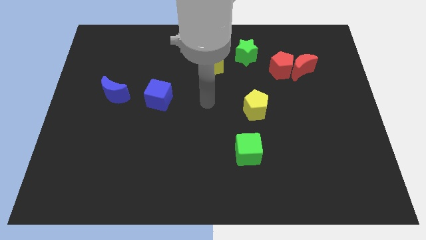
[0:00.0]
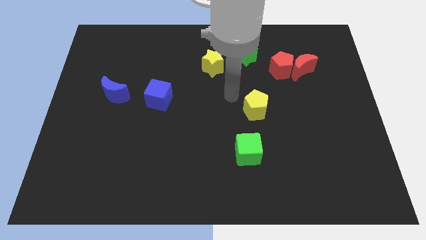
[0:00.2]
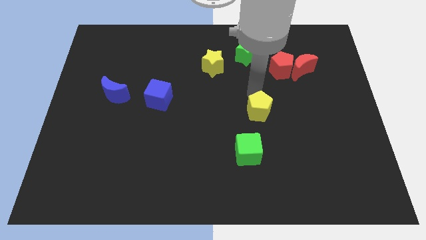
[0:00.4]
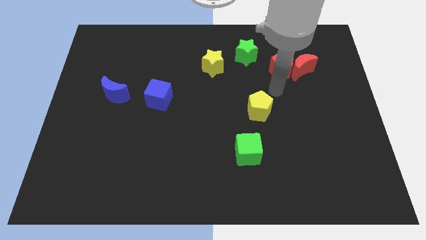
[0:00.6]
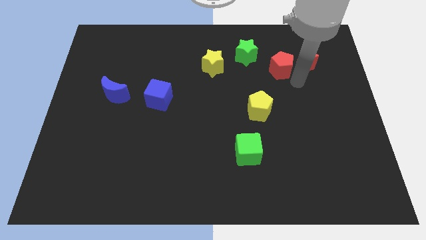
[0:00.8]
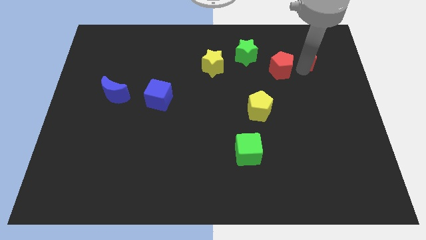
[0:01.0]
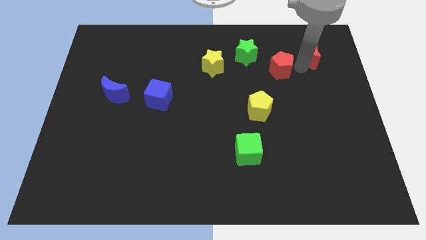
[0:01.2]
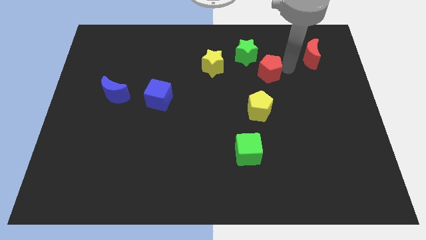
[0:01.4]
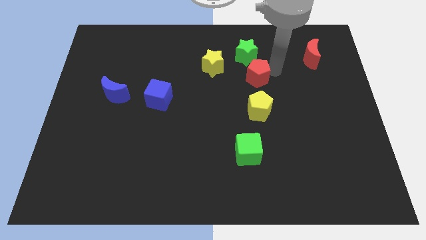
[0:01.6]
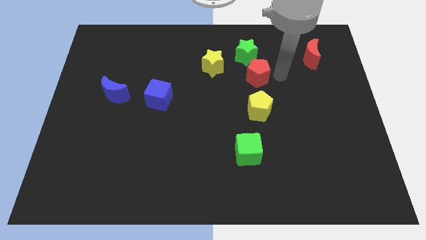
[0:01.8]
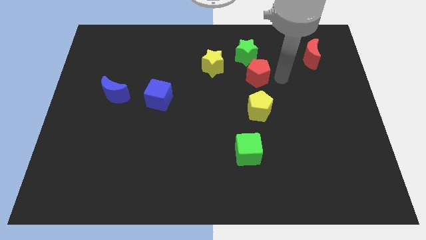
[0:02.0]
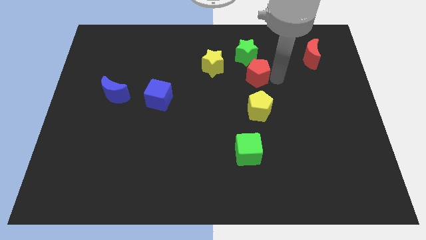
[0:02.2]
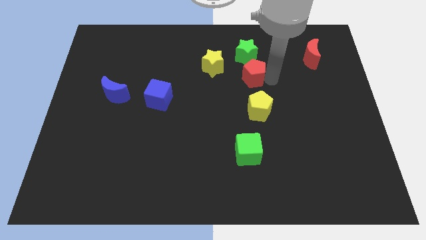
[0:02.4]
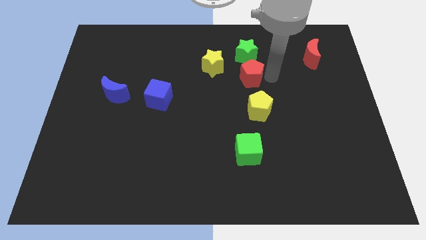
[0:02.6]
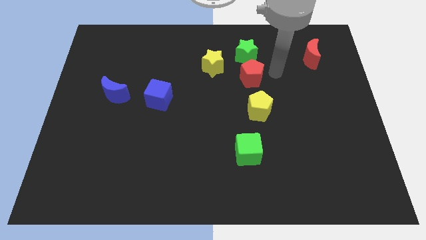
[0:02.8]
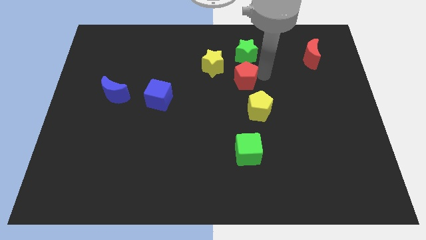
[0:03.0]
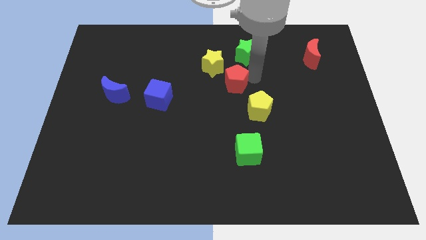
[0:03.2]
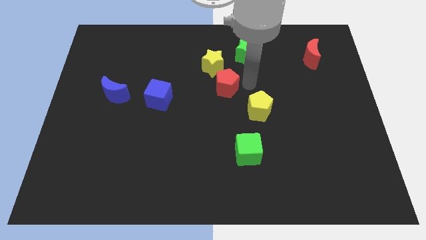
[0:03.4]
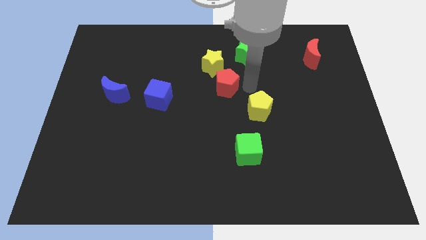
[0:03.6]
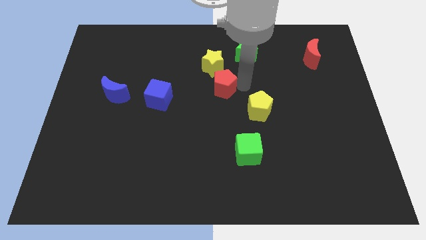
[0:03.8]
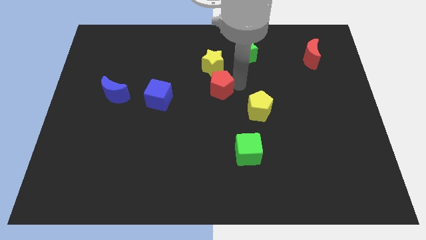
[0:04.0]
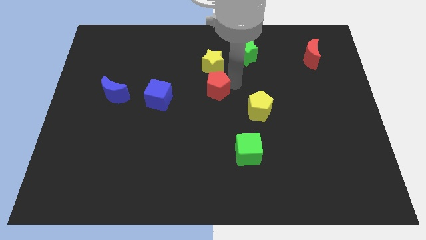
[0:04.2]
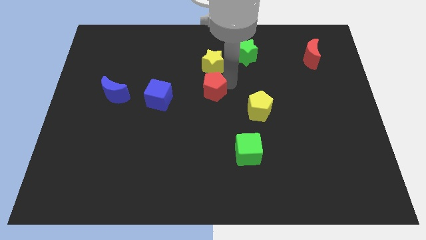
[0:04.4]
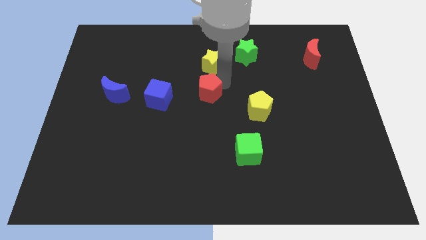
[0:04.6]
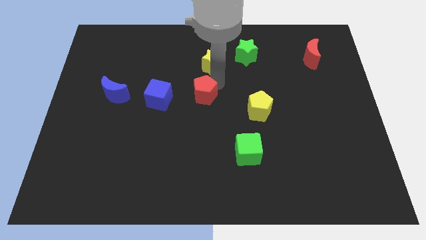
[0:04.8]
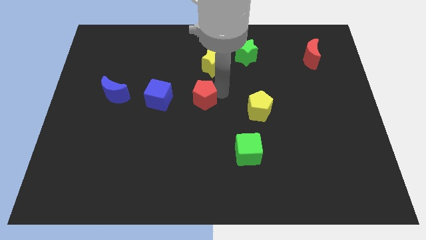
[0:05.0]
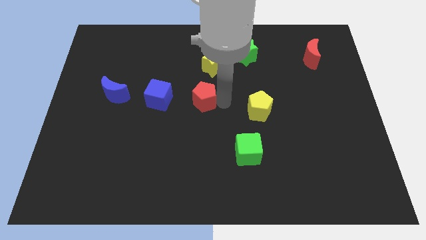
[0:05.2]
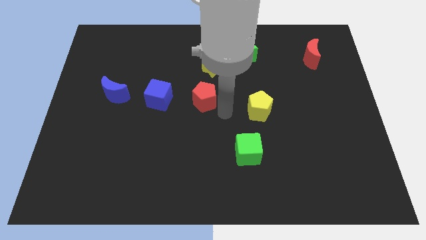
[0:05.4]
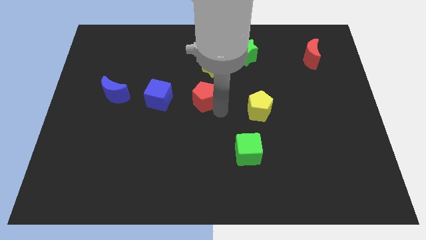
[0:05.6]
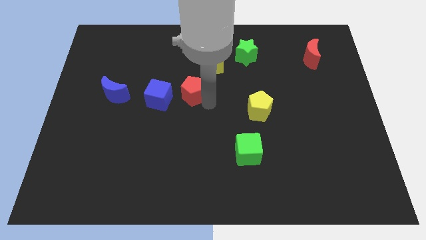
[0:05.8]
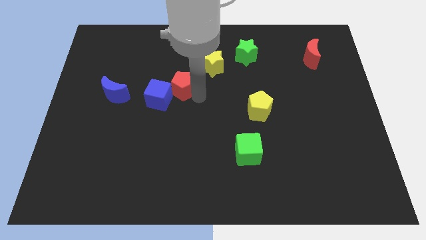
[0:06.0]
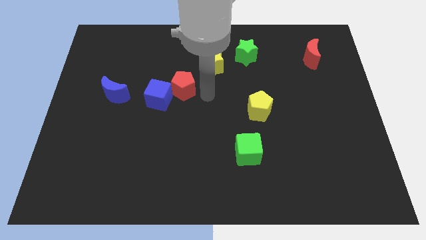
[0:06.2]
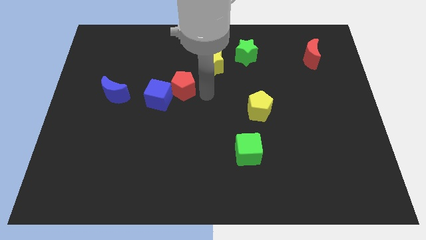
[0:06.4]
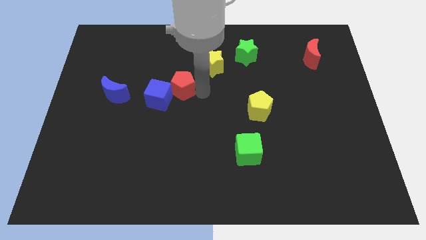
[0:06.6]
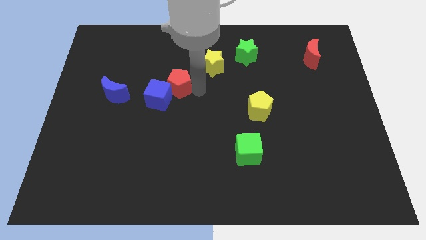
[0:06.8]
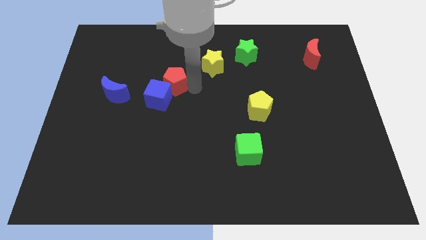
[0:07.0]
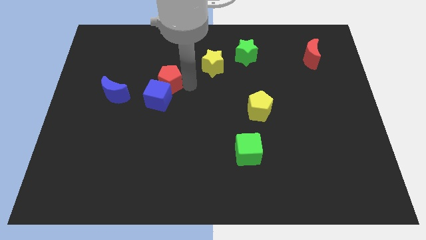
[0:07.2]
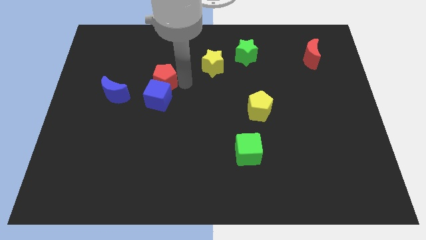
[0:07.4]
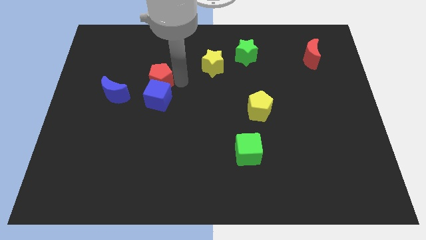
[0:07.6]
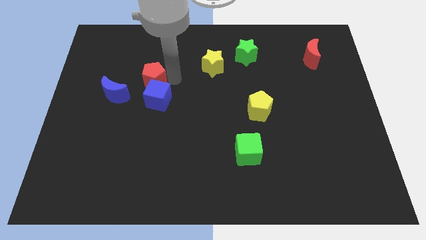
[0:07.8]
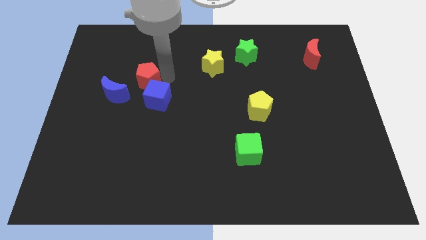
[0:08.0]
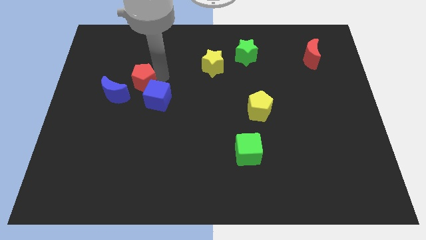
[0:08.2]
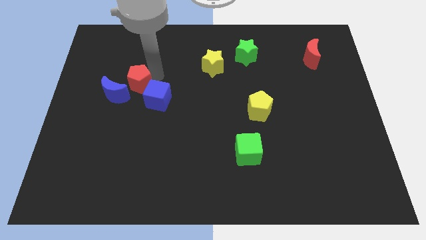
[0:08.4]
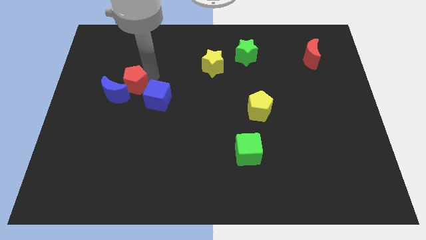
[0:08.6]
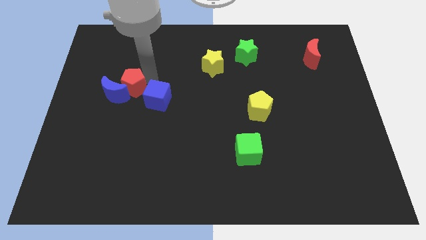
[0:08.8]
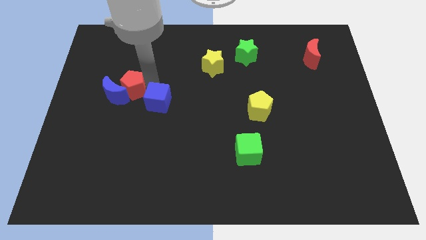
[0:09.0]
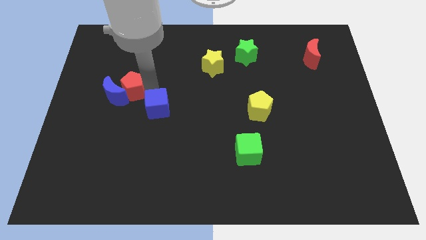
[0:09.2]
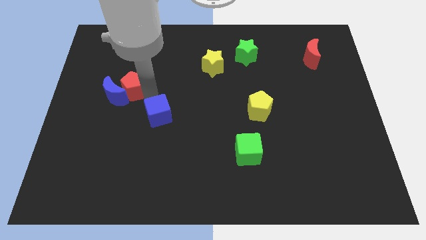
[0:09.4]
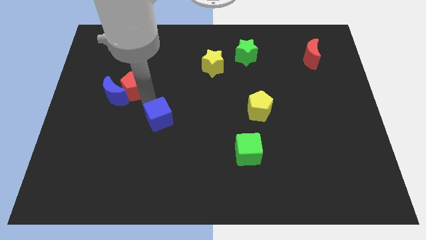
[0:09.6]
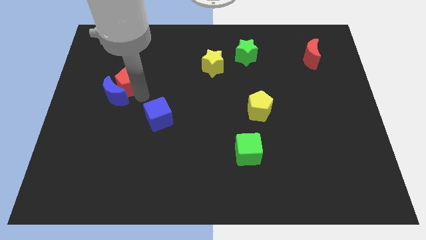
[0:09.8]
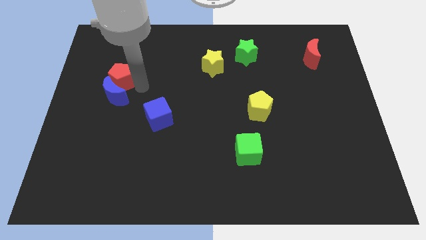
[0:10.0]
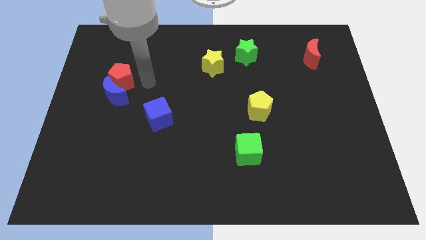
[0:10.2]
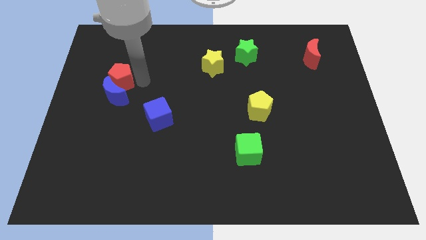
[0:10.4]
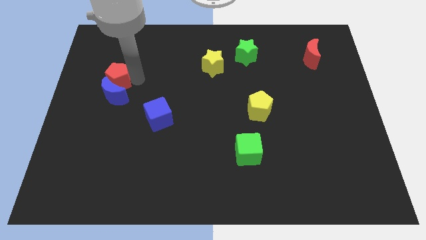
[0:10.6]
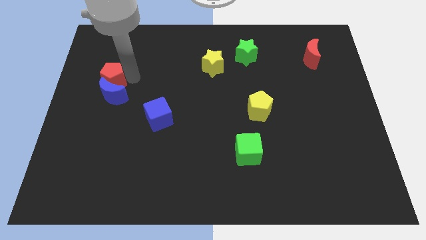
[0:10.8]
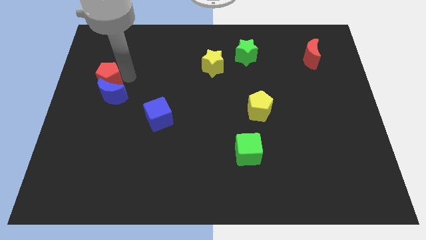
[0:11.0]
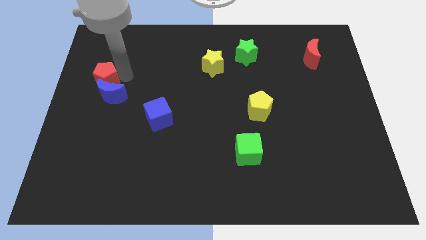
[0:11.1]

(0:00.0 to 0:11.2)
put the red pentagon to the center left

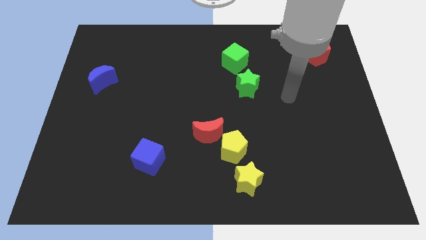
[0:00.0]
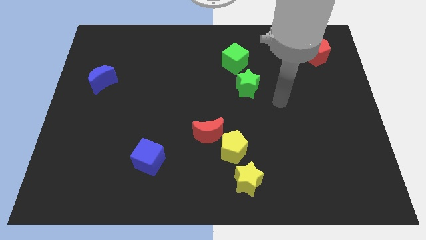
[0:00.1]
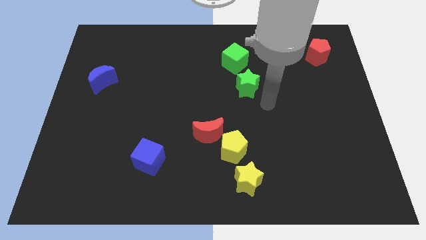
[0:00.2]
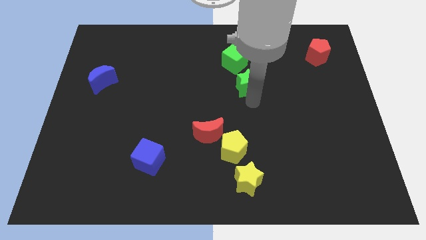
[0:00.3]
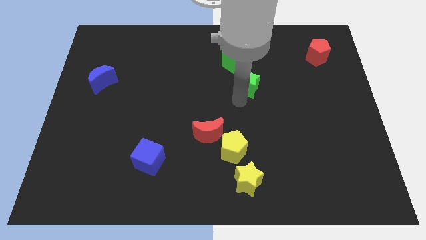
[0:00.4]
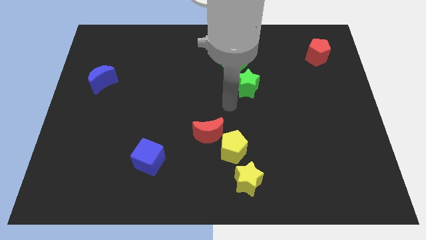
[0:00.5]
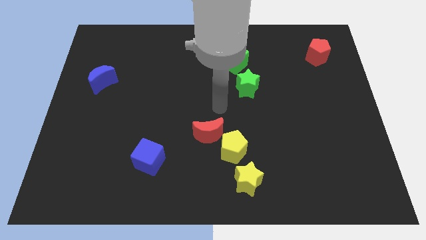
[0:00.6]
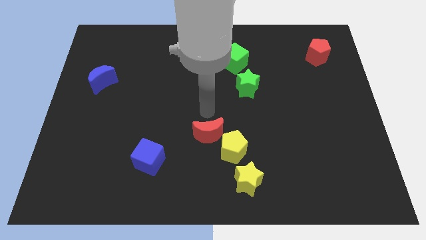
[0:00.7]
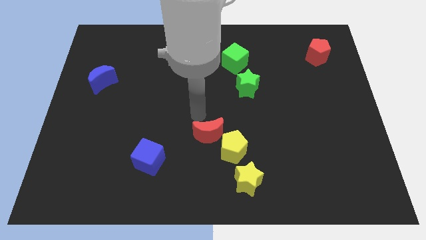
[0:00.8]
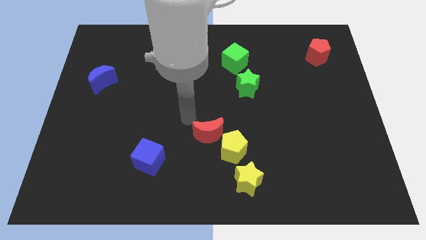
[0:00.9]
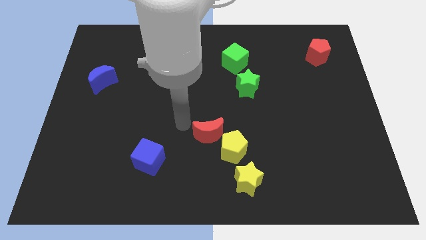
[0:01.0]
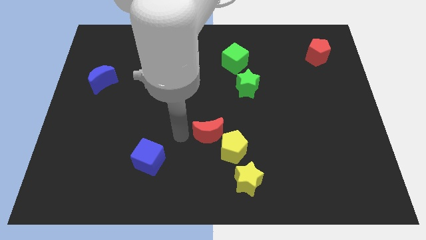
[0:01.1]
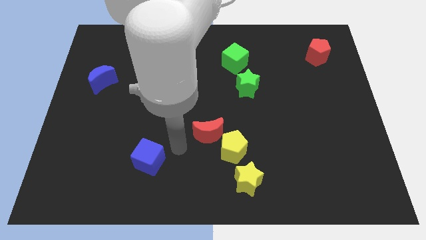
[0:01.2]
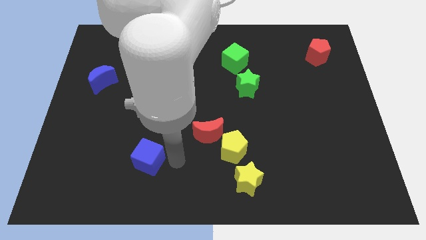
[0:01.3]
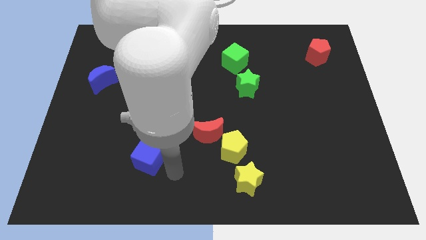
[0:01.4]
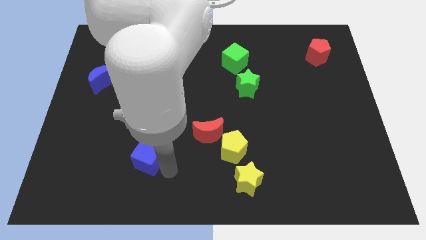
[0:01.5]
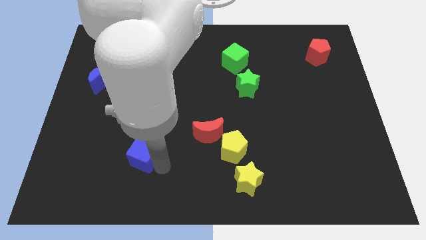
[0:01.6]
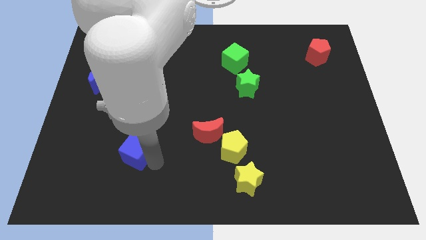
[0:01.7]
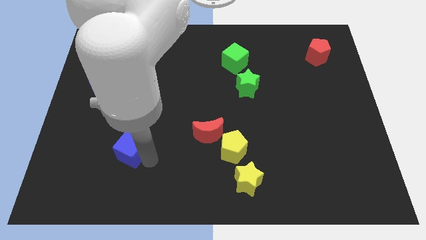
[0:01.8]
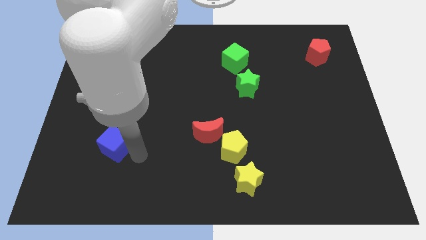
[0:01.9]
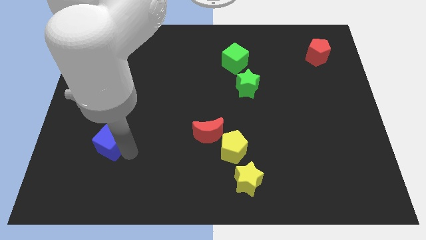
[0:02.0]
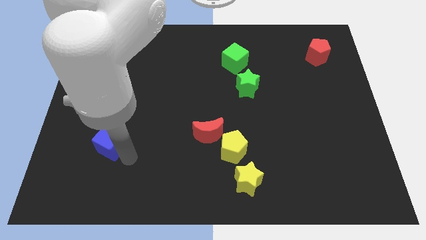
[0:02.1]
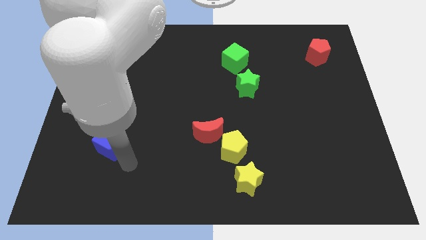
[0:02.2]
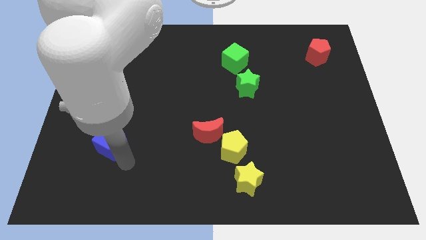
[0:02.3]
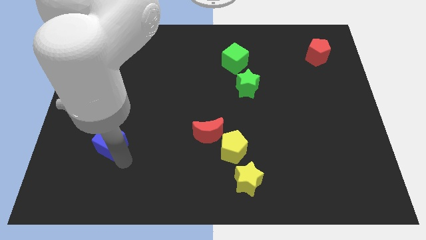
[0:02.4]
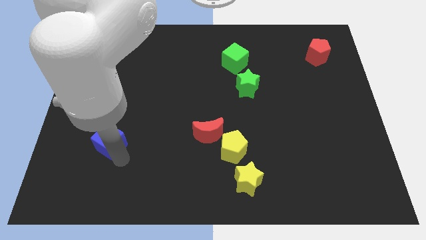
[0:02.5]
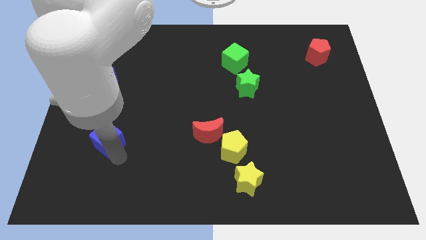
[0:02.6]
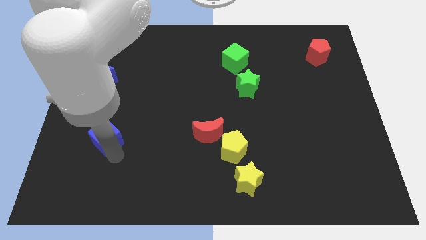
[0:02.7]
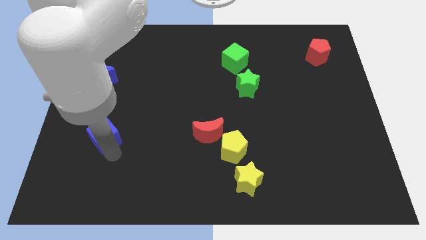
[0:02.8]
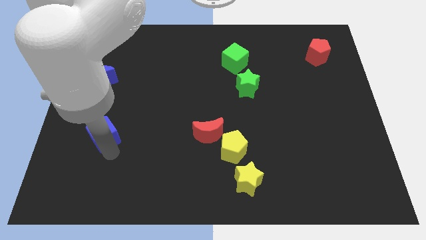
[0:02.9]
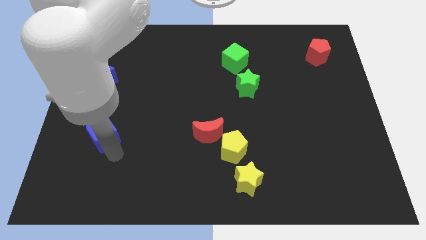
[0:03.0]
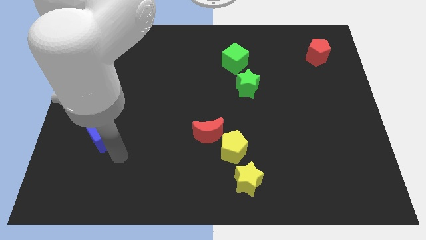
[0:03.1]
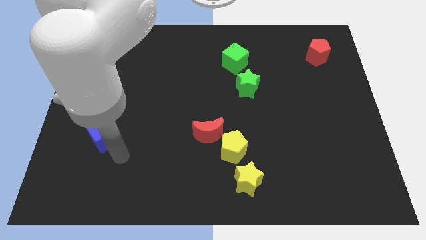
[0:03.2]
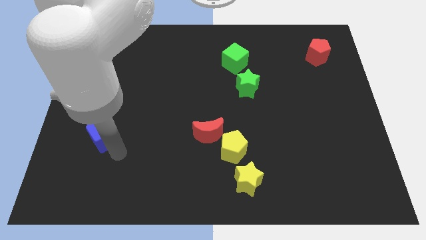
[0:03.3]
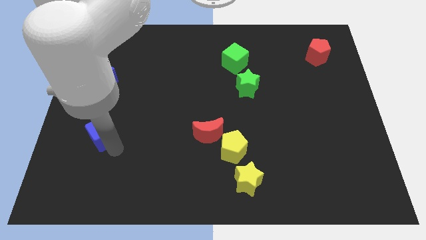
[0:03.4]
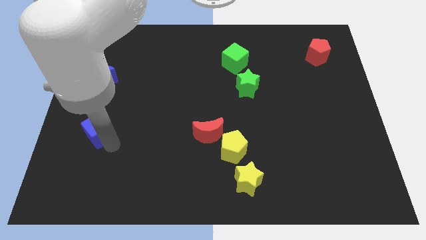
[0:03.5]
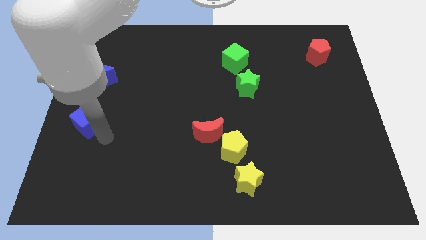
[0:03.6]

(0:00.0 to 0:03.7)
move the blue cube to the center left
